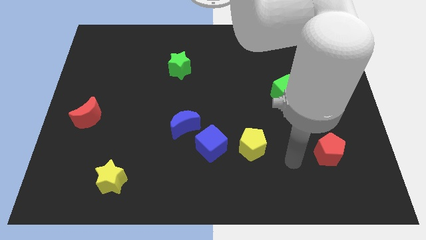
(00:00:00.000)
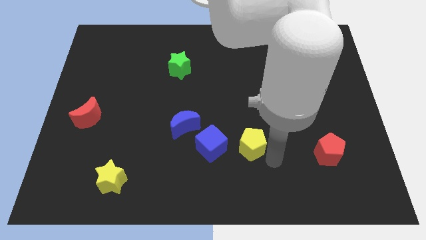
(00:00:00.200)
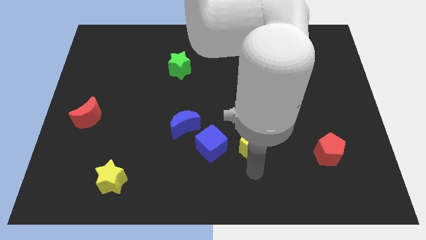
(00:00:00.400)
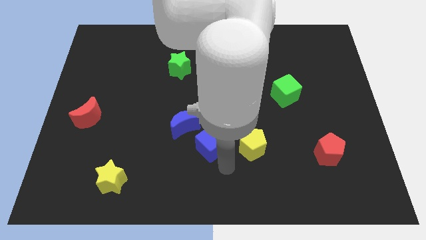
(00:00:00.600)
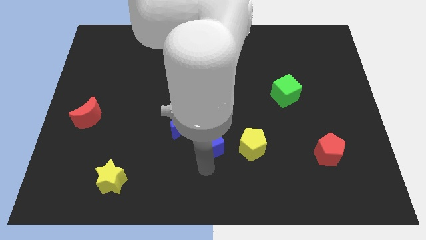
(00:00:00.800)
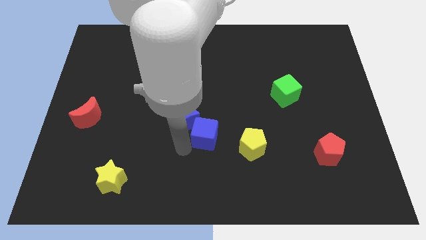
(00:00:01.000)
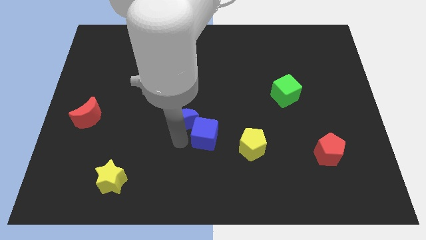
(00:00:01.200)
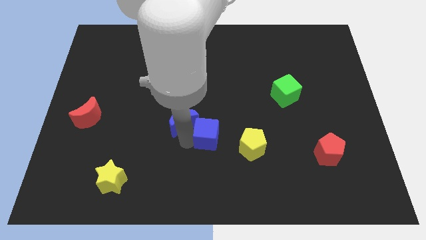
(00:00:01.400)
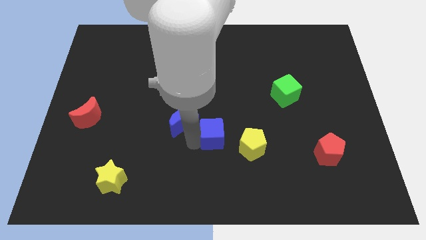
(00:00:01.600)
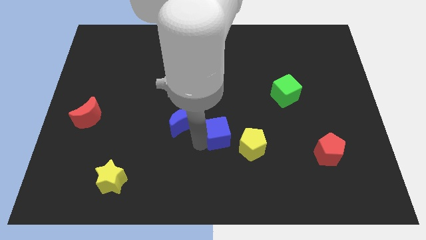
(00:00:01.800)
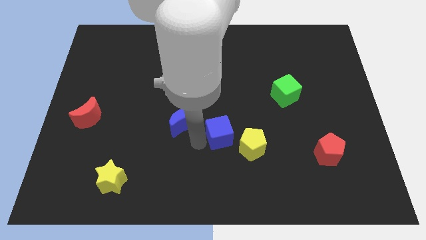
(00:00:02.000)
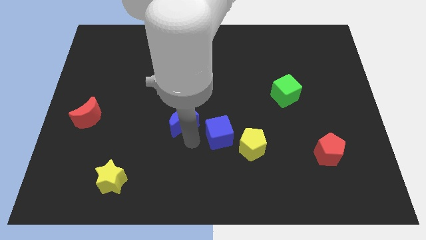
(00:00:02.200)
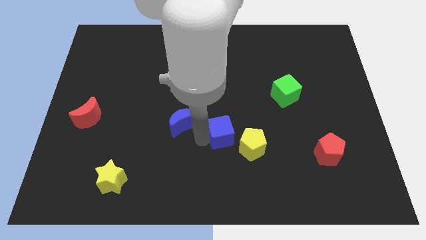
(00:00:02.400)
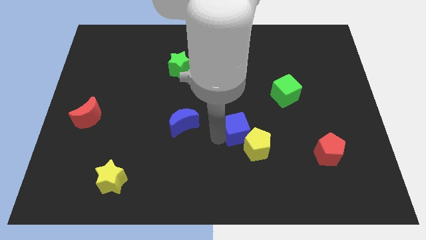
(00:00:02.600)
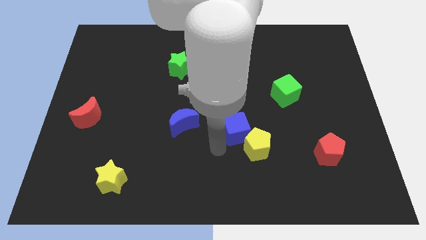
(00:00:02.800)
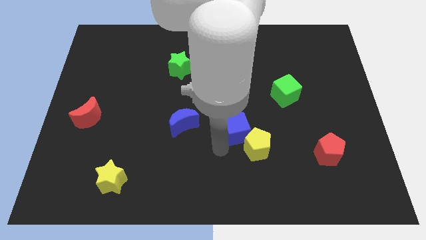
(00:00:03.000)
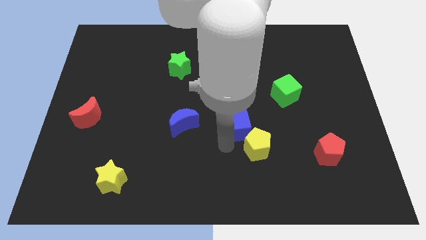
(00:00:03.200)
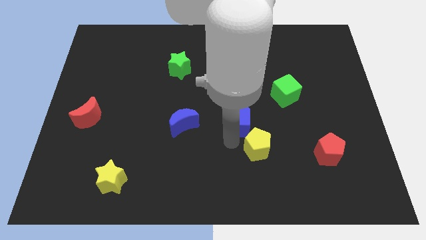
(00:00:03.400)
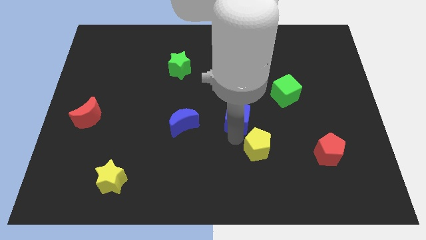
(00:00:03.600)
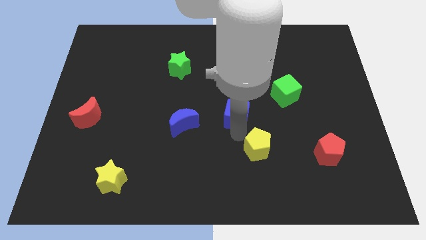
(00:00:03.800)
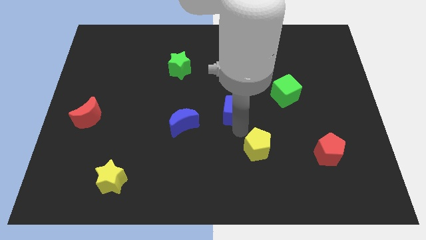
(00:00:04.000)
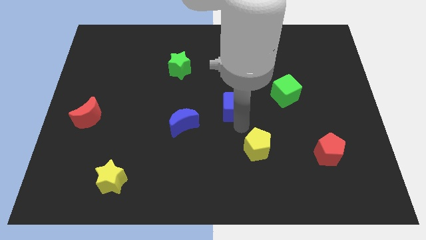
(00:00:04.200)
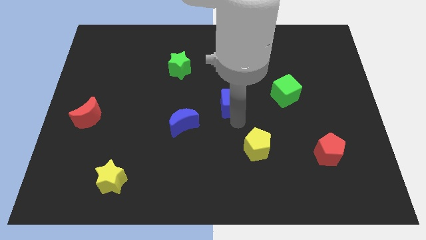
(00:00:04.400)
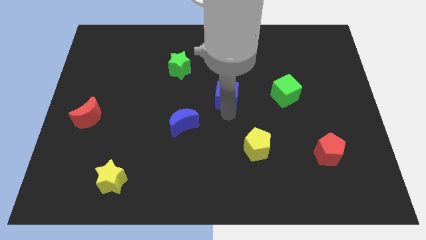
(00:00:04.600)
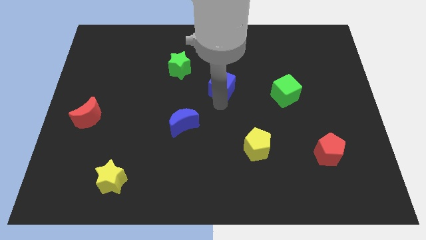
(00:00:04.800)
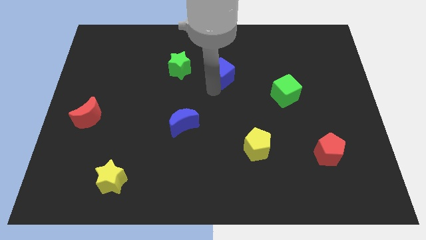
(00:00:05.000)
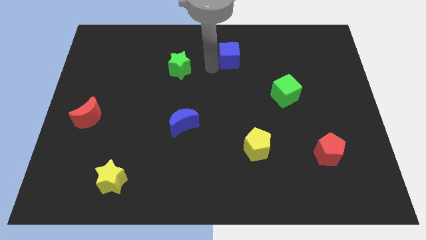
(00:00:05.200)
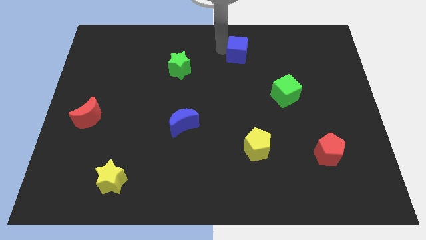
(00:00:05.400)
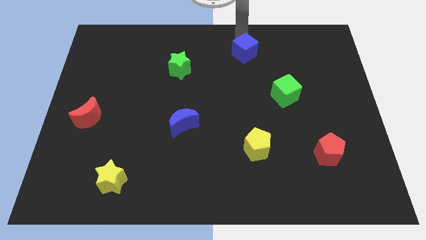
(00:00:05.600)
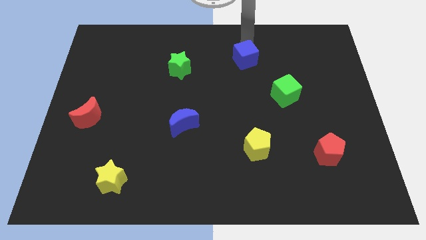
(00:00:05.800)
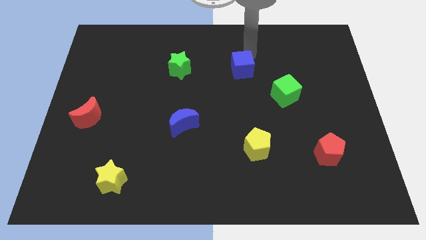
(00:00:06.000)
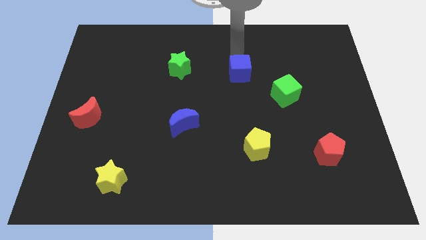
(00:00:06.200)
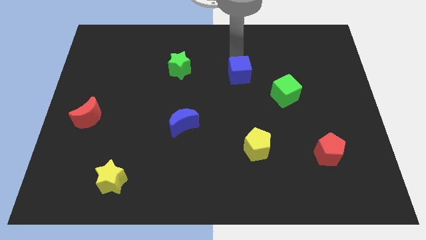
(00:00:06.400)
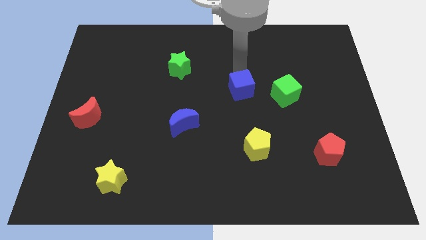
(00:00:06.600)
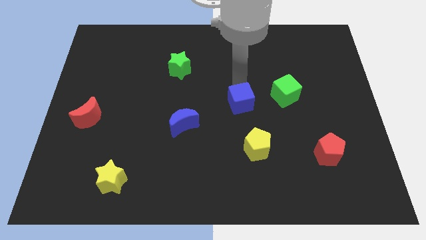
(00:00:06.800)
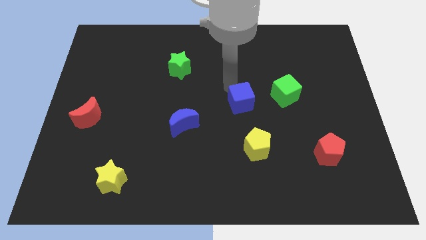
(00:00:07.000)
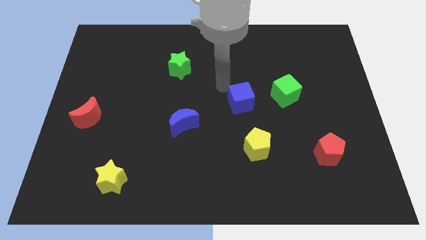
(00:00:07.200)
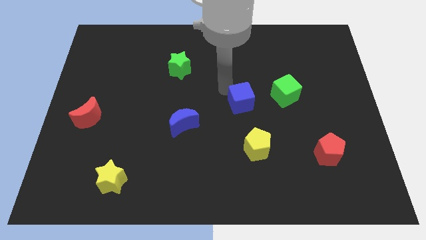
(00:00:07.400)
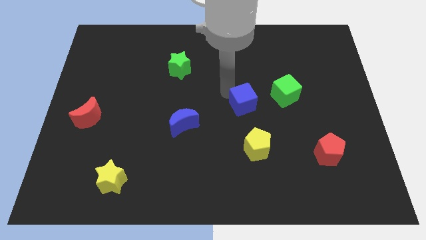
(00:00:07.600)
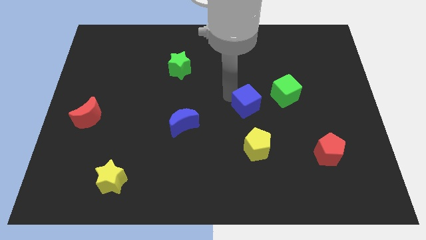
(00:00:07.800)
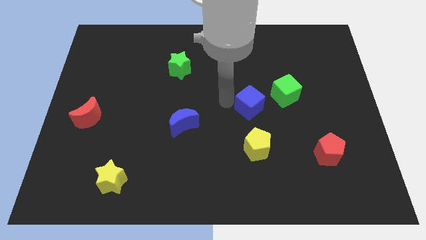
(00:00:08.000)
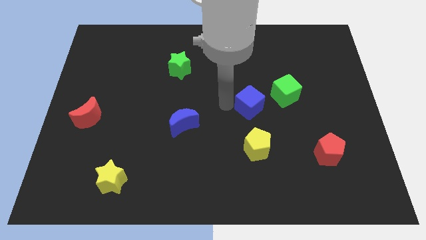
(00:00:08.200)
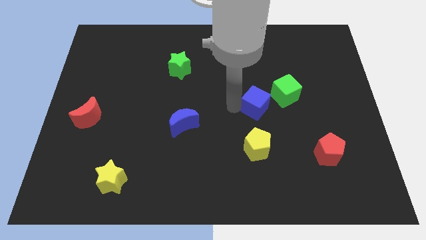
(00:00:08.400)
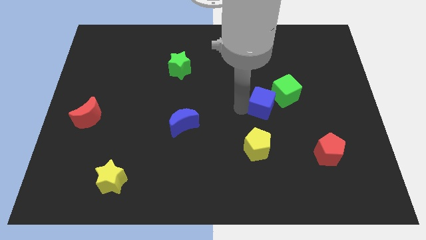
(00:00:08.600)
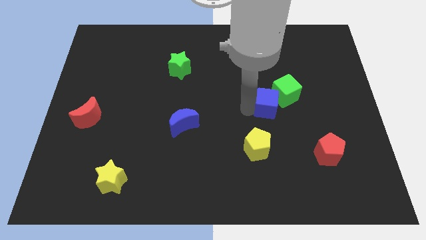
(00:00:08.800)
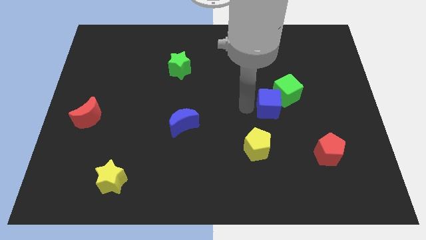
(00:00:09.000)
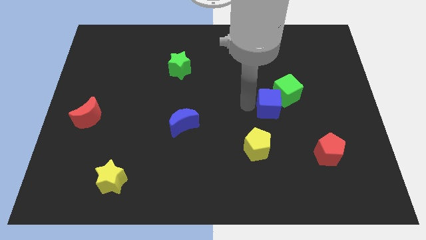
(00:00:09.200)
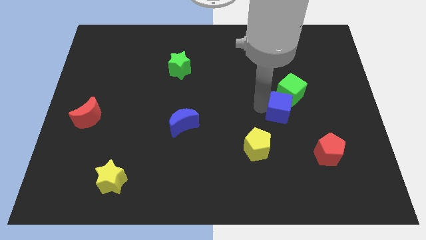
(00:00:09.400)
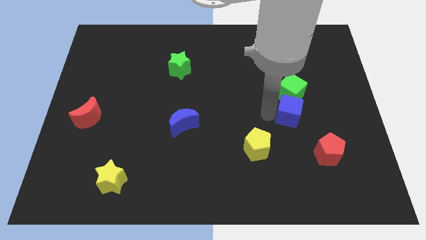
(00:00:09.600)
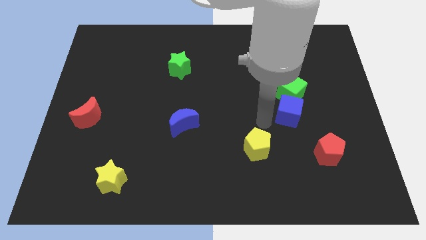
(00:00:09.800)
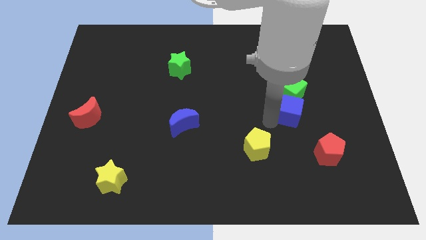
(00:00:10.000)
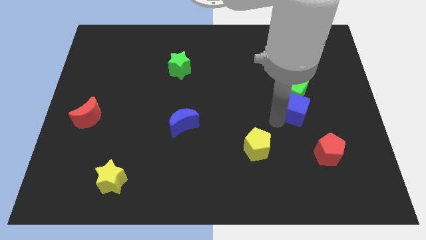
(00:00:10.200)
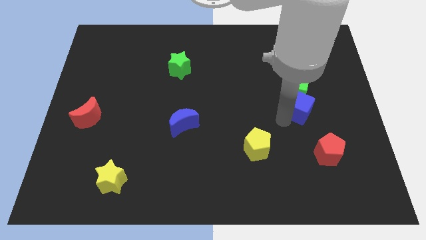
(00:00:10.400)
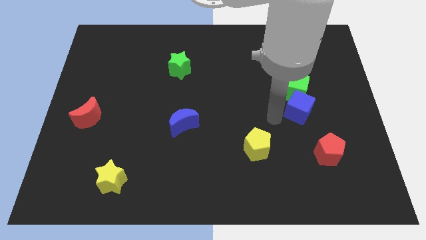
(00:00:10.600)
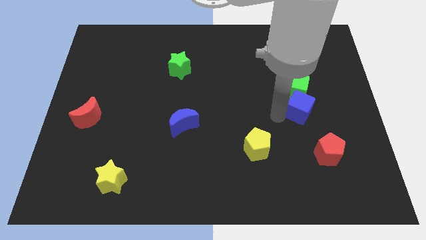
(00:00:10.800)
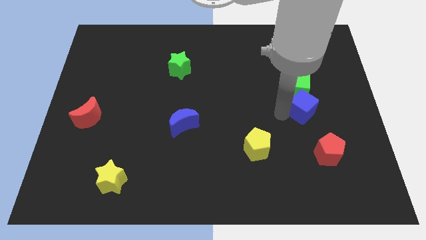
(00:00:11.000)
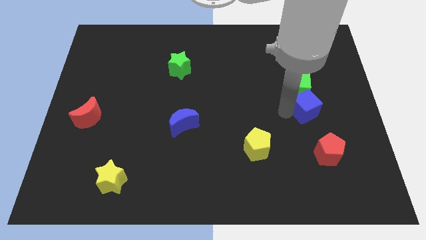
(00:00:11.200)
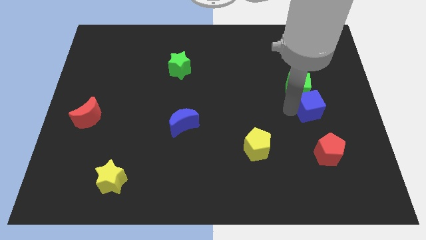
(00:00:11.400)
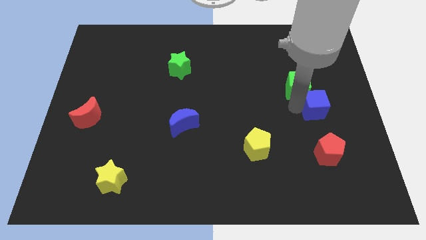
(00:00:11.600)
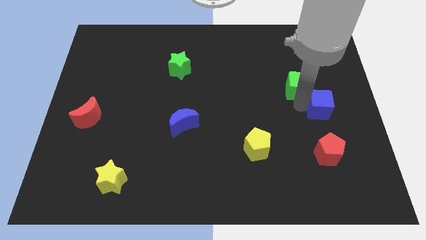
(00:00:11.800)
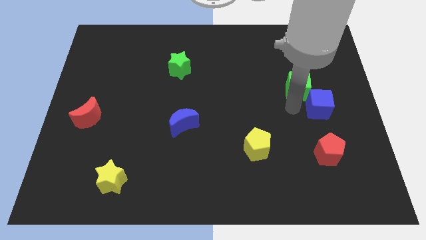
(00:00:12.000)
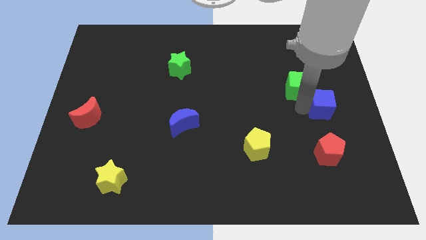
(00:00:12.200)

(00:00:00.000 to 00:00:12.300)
slide the blue cube to the center right
